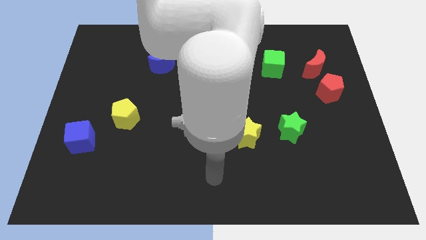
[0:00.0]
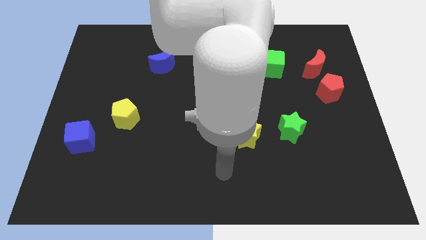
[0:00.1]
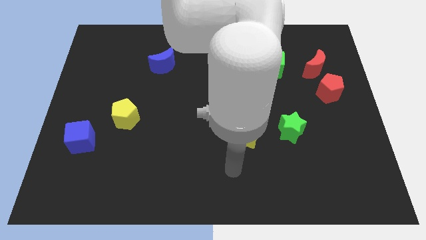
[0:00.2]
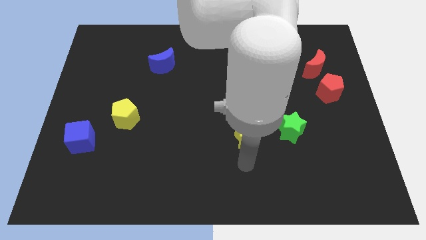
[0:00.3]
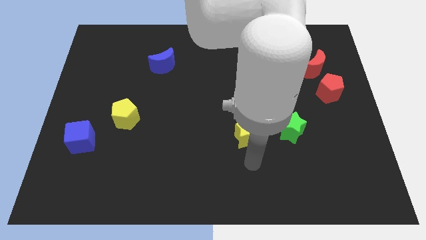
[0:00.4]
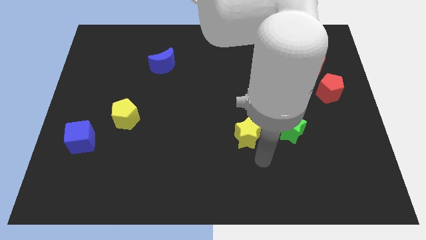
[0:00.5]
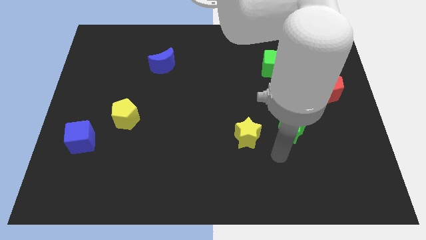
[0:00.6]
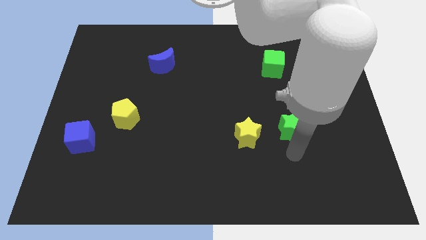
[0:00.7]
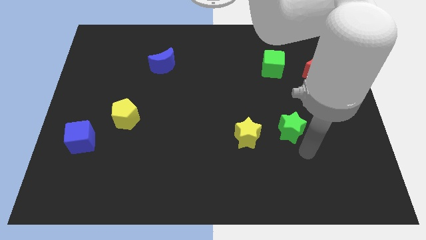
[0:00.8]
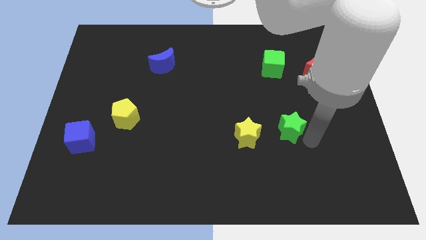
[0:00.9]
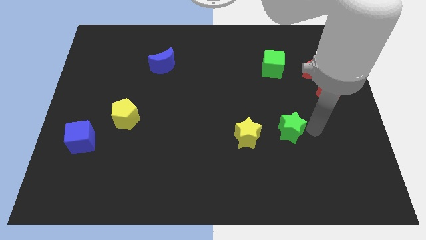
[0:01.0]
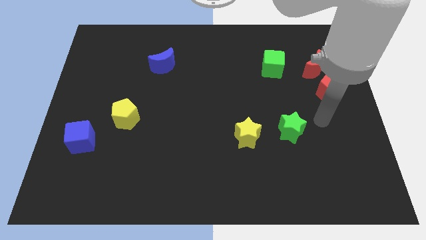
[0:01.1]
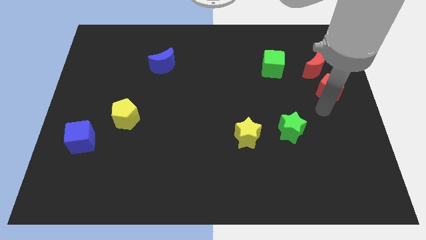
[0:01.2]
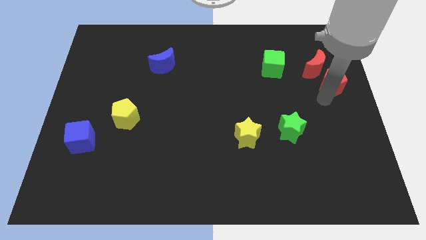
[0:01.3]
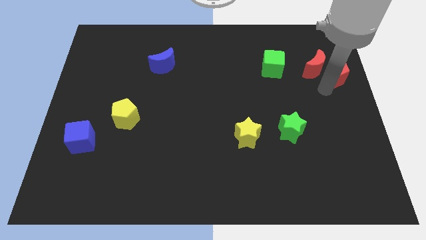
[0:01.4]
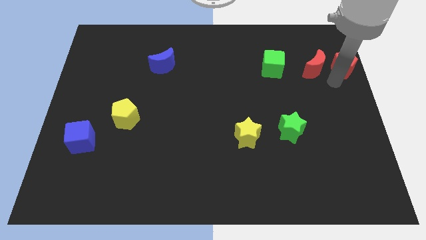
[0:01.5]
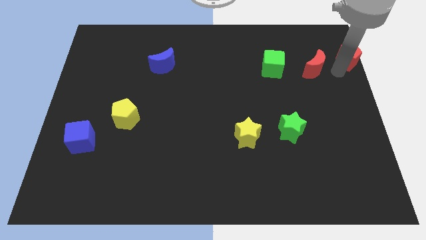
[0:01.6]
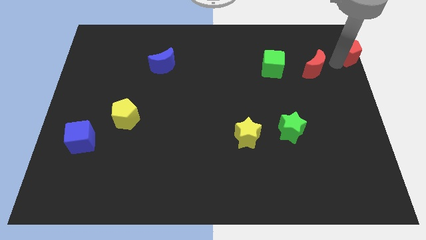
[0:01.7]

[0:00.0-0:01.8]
separate the red moon from the red pentagon

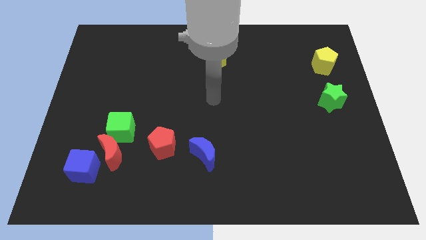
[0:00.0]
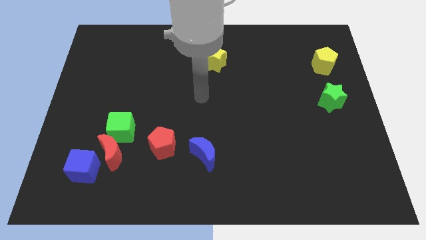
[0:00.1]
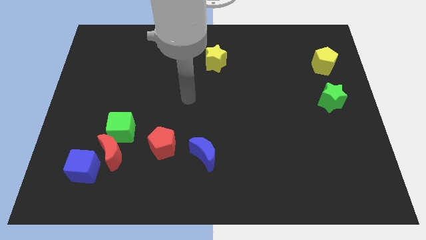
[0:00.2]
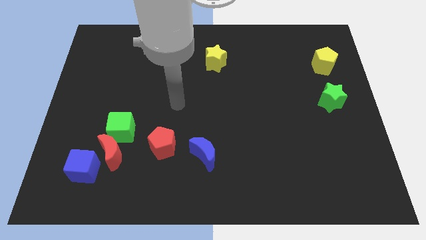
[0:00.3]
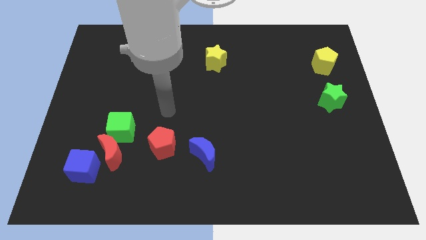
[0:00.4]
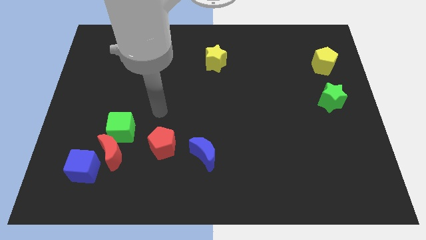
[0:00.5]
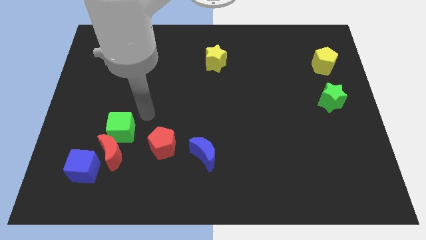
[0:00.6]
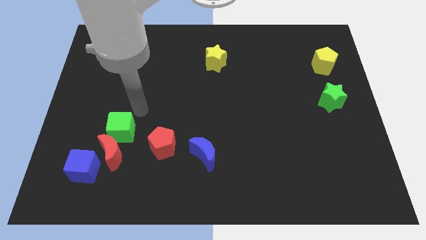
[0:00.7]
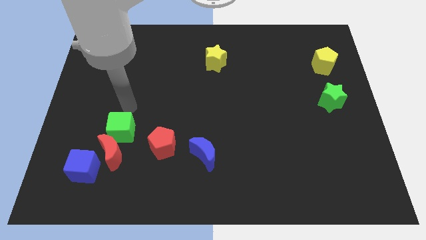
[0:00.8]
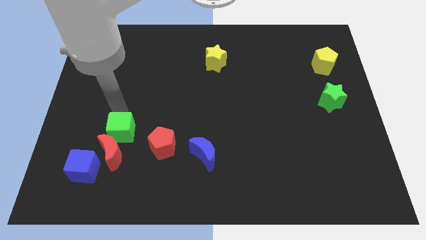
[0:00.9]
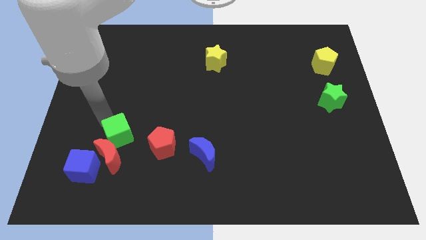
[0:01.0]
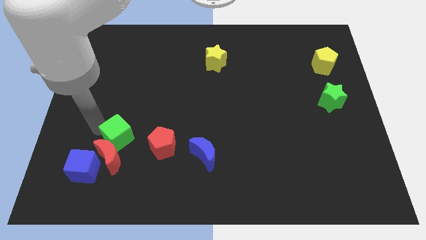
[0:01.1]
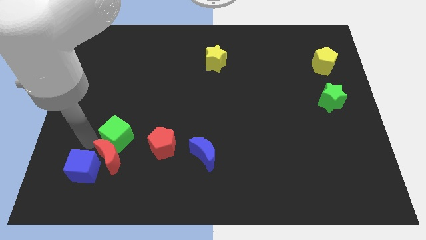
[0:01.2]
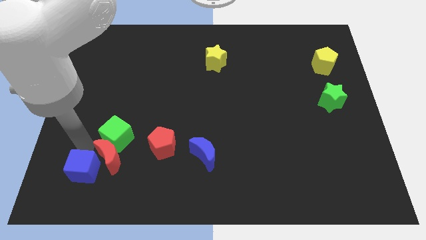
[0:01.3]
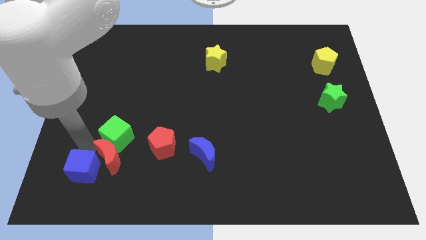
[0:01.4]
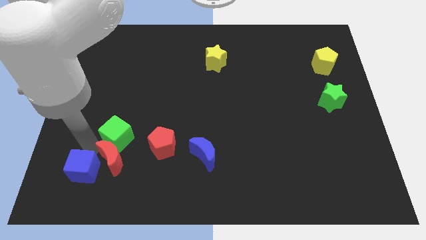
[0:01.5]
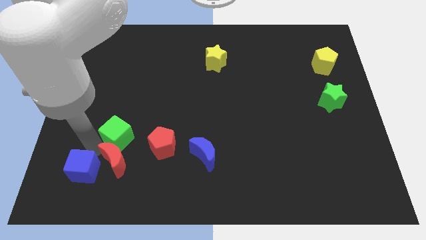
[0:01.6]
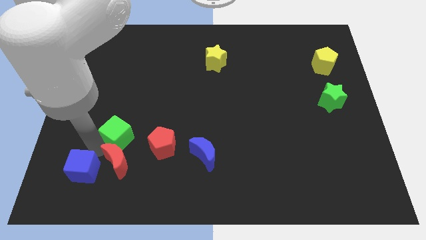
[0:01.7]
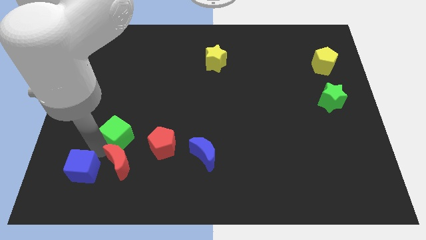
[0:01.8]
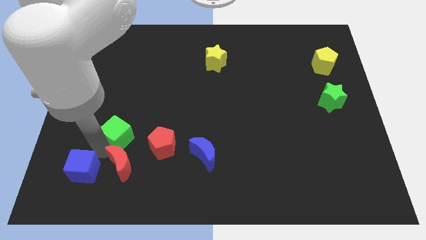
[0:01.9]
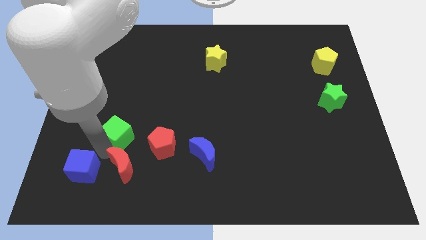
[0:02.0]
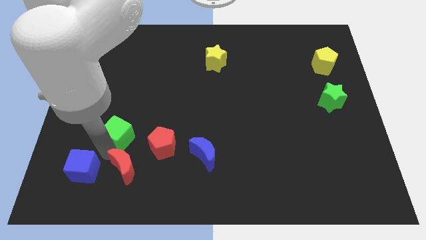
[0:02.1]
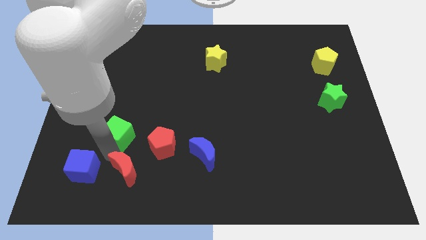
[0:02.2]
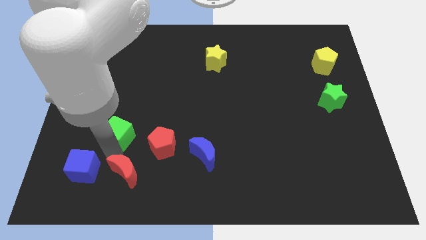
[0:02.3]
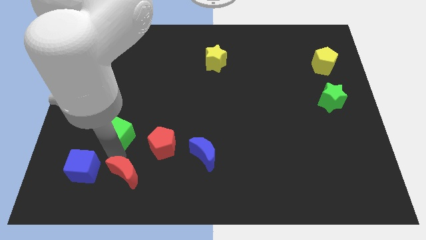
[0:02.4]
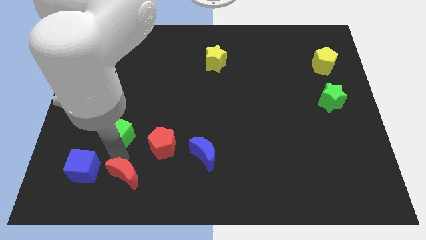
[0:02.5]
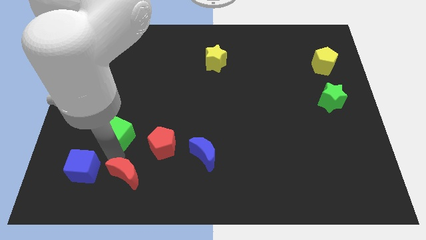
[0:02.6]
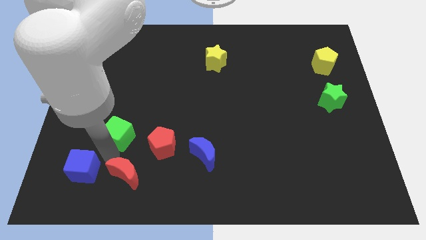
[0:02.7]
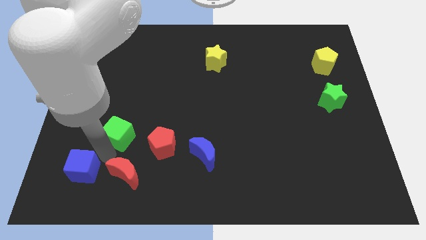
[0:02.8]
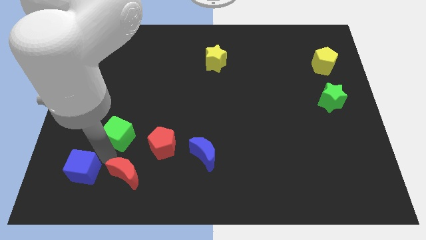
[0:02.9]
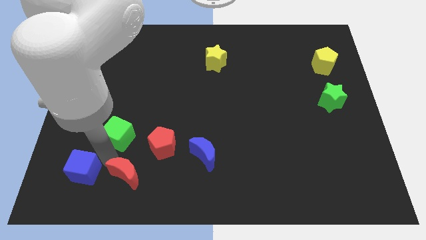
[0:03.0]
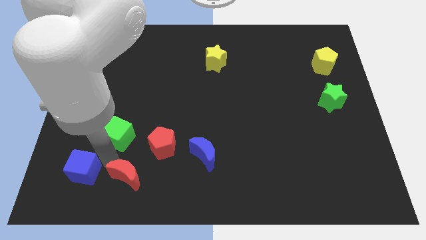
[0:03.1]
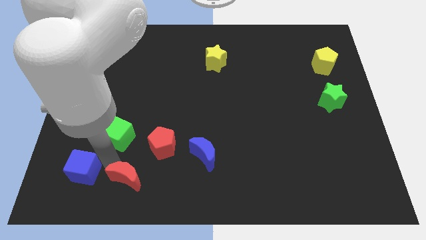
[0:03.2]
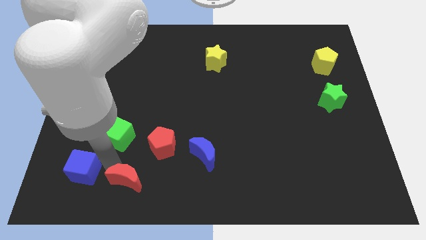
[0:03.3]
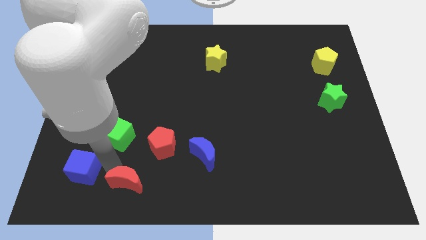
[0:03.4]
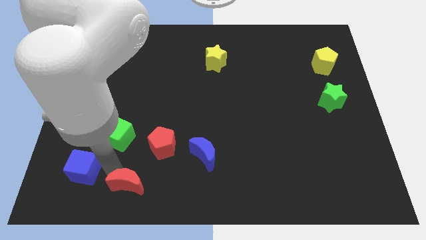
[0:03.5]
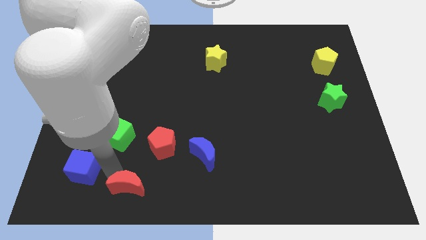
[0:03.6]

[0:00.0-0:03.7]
move the red moon away from the green cube and blue cube

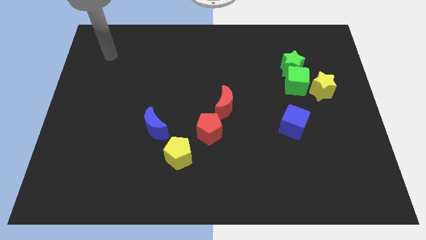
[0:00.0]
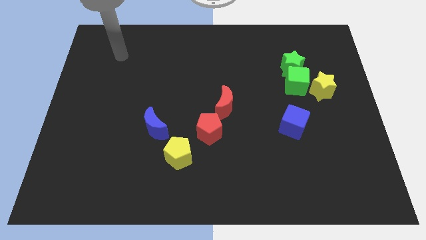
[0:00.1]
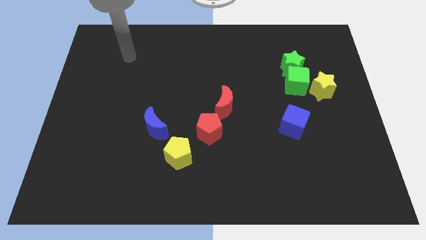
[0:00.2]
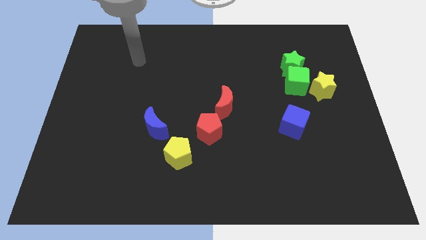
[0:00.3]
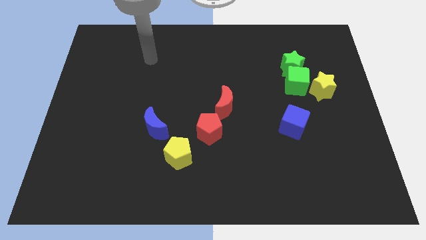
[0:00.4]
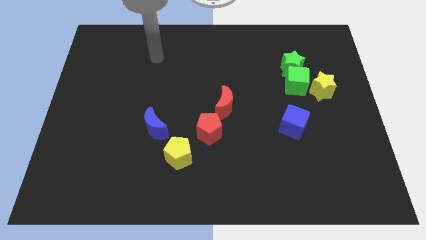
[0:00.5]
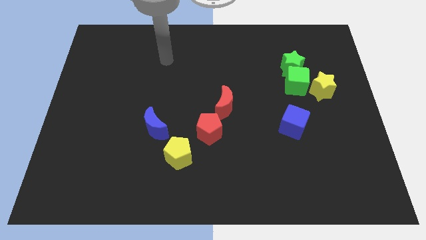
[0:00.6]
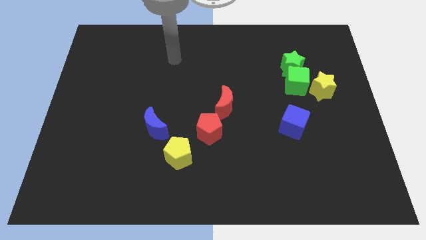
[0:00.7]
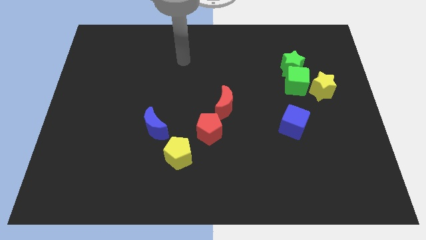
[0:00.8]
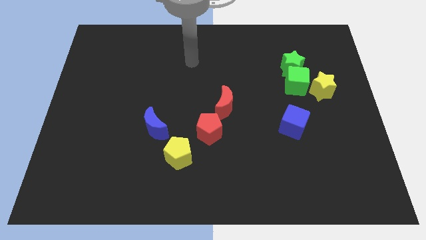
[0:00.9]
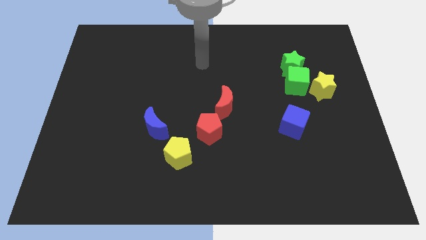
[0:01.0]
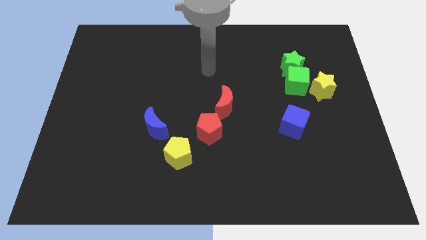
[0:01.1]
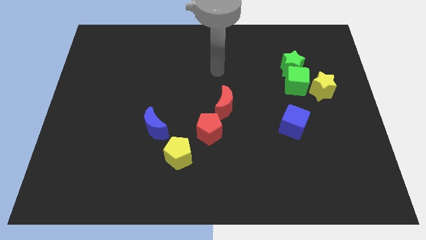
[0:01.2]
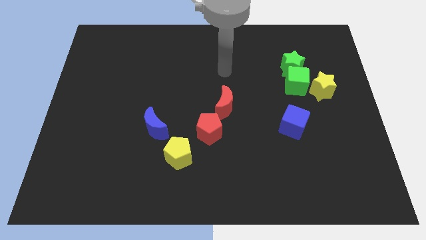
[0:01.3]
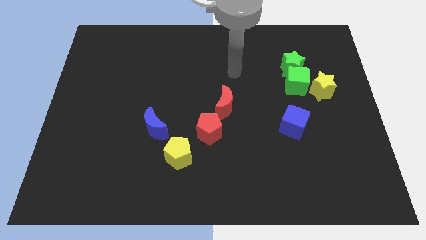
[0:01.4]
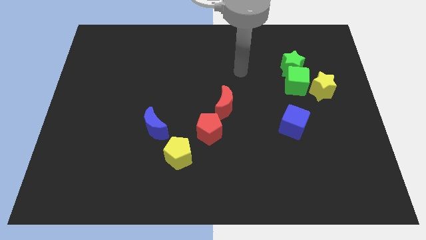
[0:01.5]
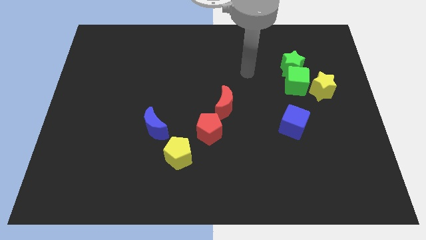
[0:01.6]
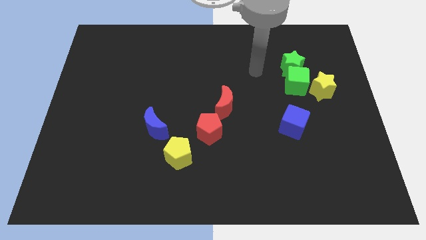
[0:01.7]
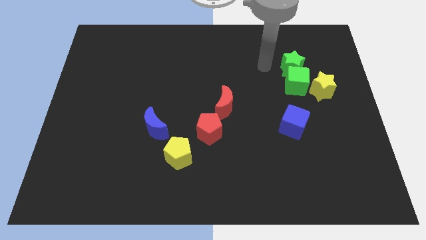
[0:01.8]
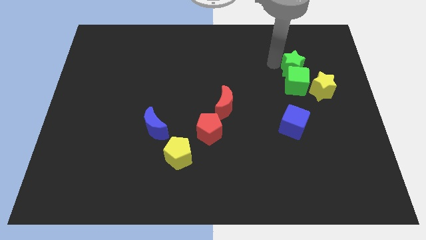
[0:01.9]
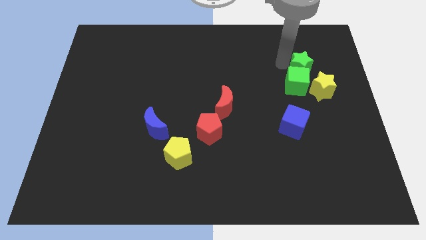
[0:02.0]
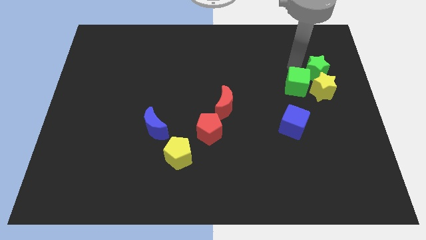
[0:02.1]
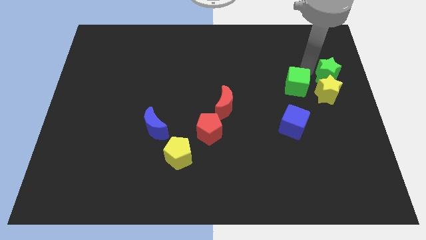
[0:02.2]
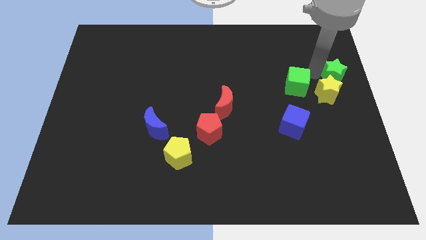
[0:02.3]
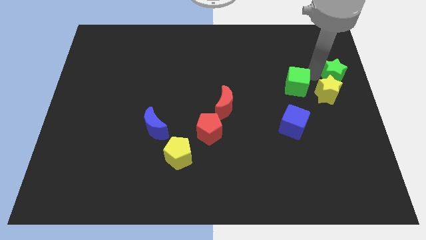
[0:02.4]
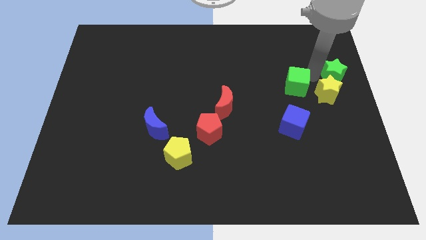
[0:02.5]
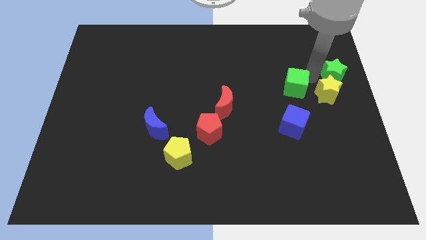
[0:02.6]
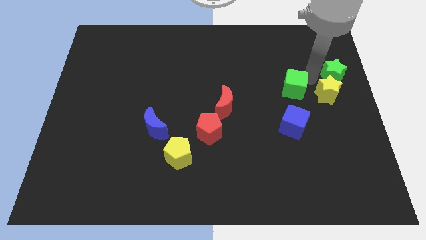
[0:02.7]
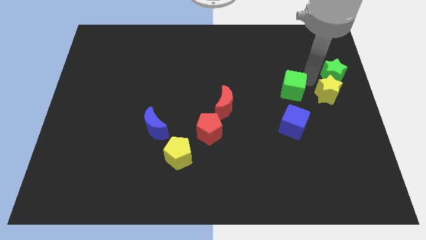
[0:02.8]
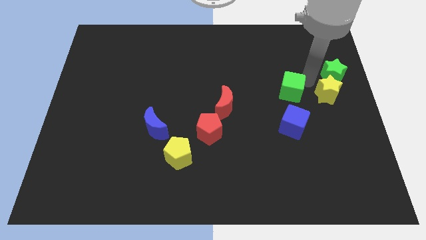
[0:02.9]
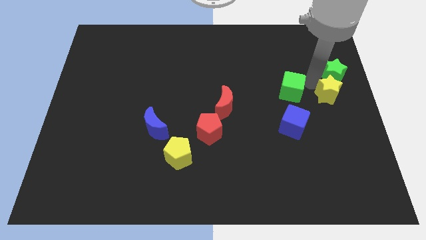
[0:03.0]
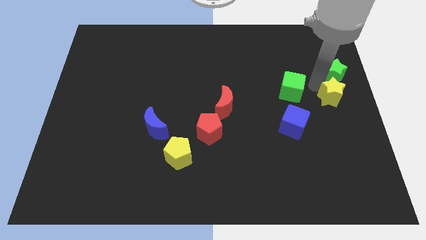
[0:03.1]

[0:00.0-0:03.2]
pull the green cube apart from the green star and yellow star

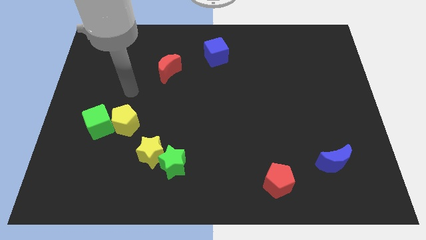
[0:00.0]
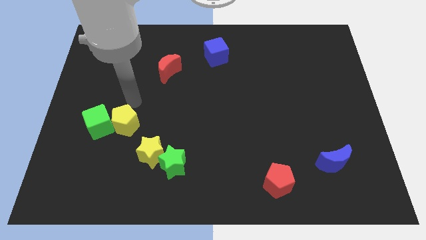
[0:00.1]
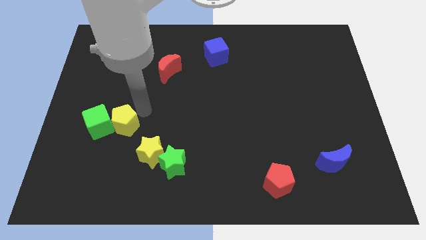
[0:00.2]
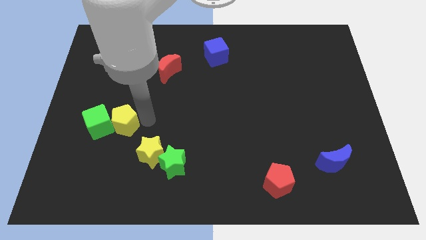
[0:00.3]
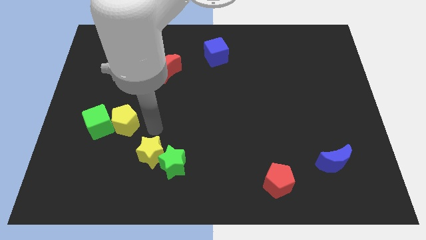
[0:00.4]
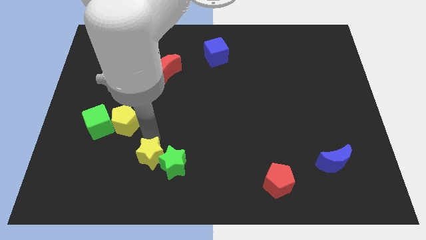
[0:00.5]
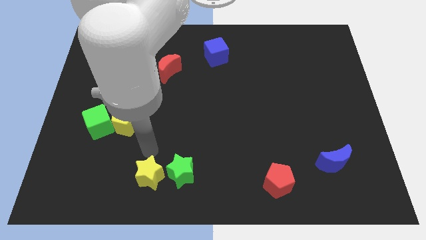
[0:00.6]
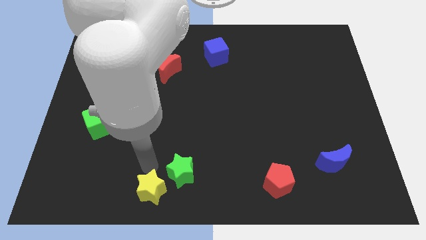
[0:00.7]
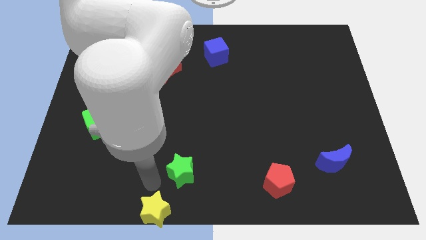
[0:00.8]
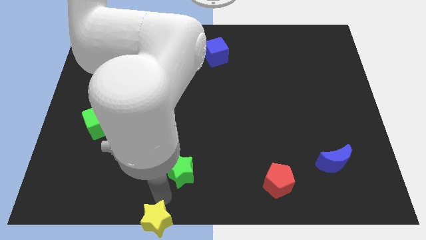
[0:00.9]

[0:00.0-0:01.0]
pull the green star apart from the yellow star
